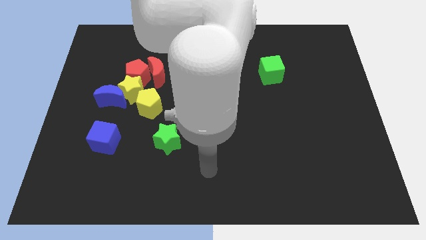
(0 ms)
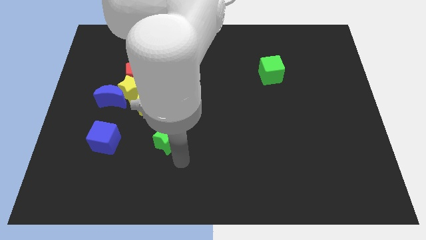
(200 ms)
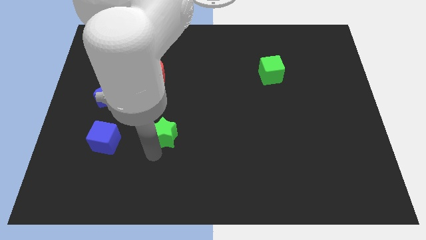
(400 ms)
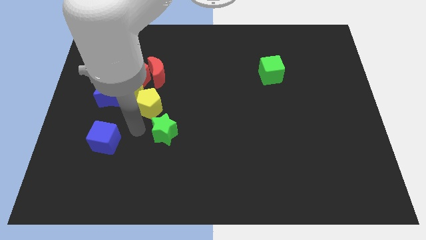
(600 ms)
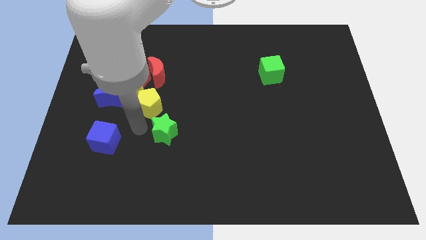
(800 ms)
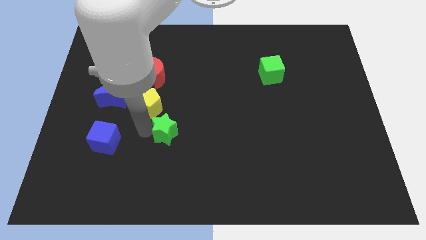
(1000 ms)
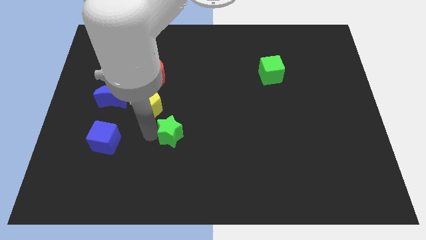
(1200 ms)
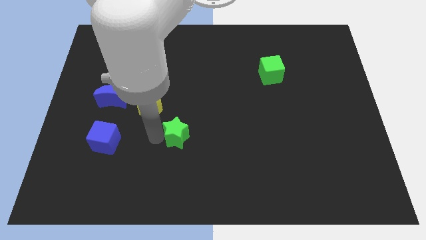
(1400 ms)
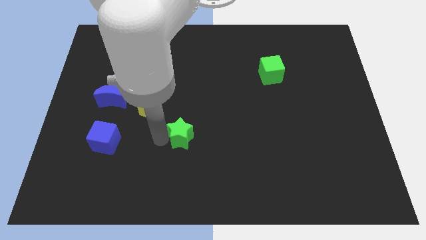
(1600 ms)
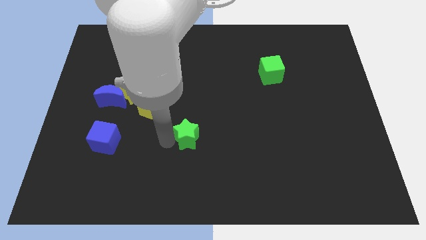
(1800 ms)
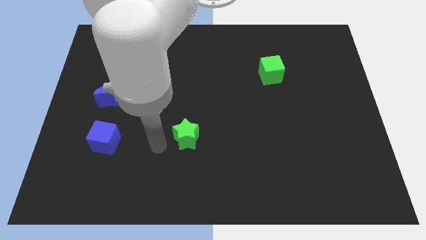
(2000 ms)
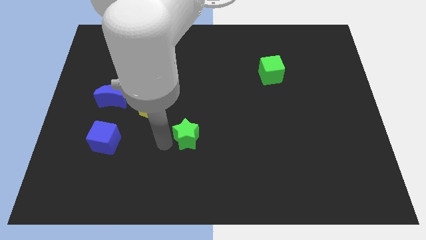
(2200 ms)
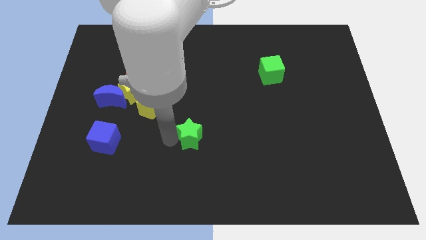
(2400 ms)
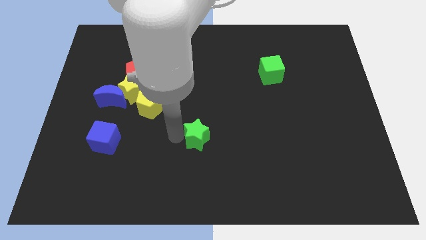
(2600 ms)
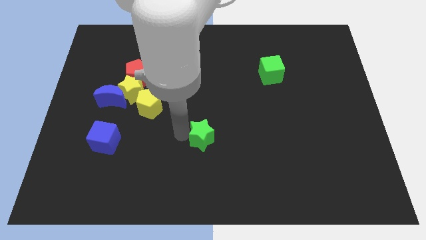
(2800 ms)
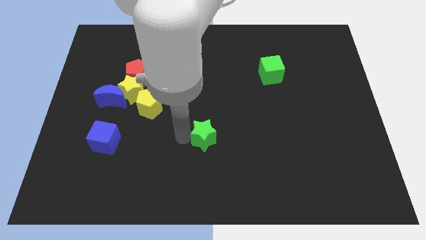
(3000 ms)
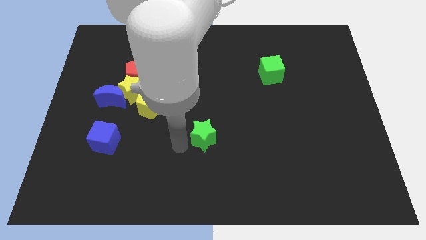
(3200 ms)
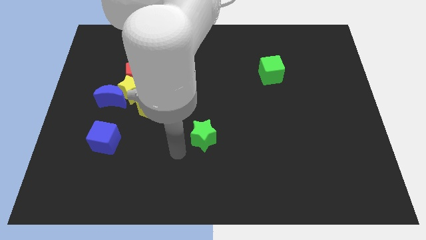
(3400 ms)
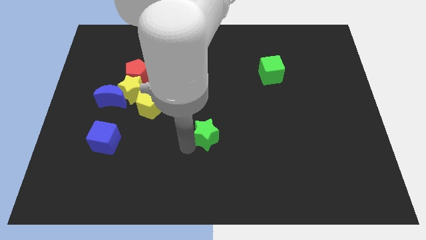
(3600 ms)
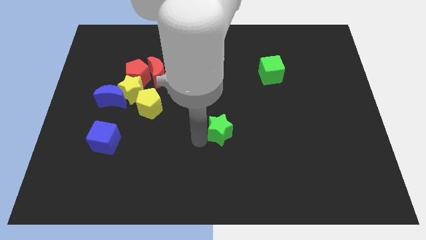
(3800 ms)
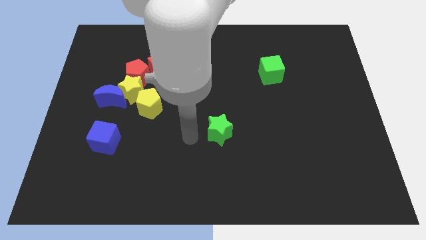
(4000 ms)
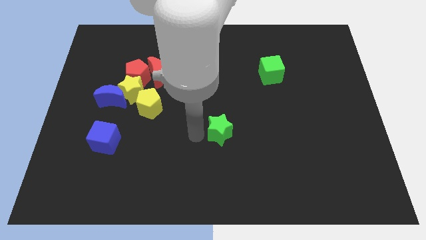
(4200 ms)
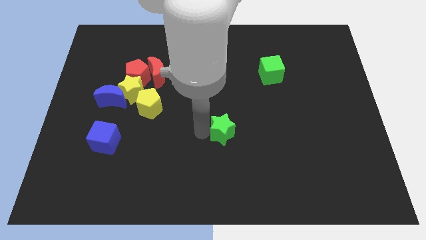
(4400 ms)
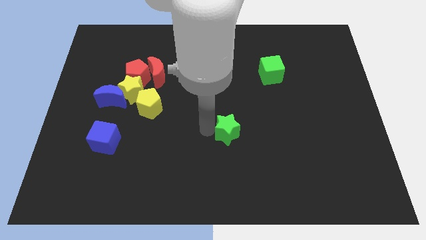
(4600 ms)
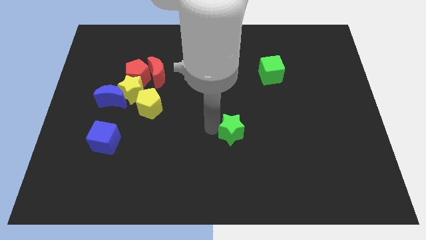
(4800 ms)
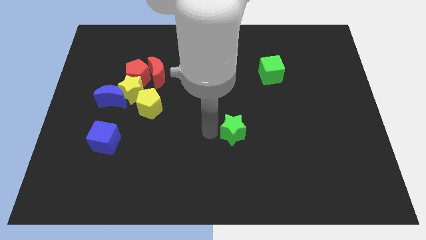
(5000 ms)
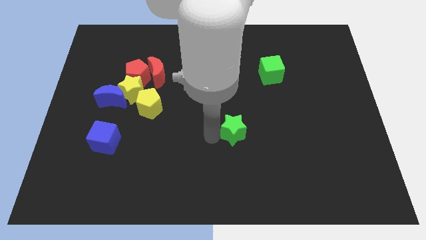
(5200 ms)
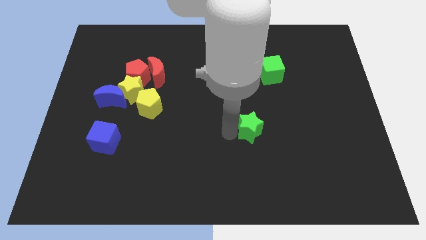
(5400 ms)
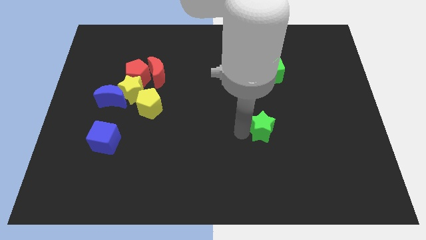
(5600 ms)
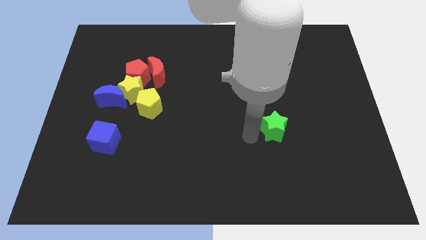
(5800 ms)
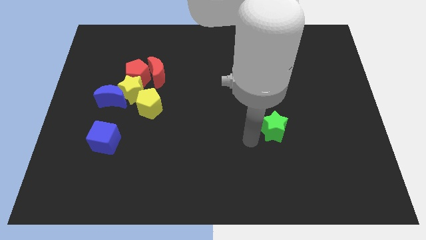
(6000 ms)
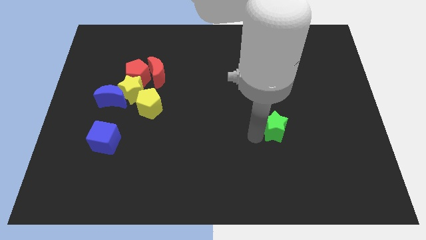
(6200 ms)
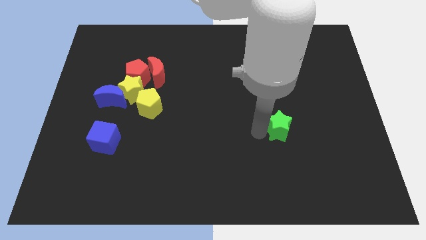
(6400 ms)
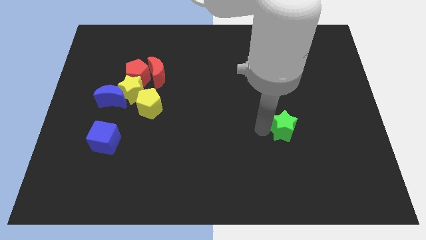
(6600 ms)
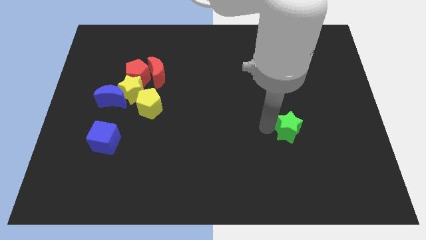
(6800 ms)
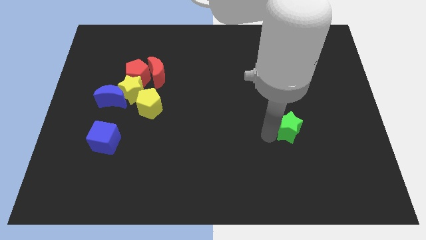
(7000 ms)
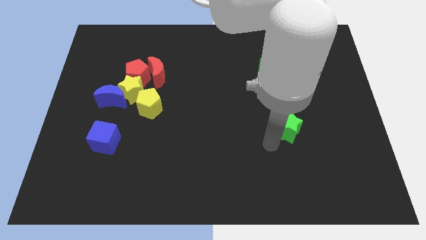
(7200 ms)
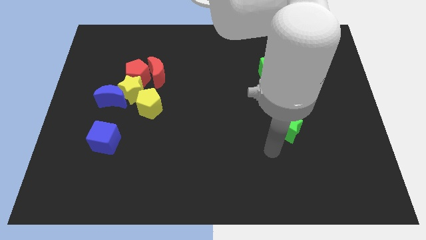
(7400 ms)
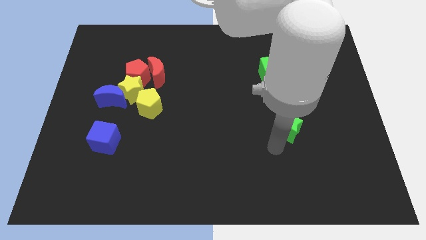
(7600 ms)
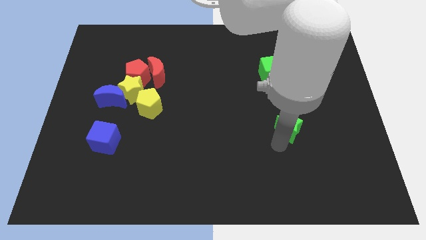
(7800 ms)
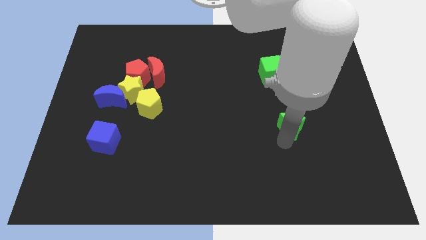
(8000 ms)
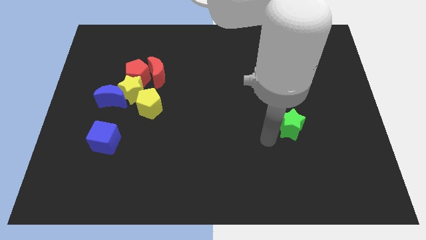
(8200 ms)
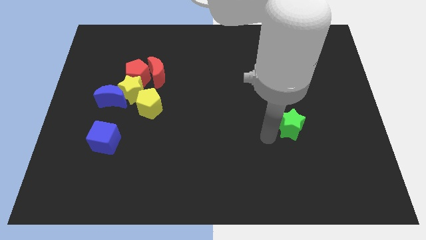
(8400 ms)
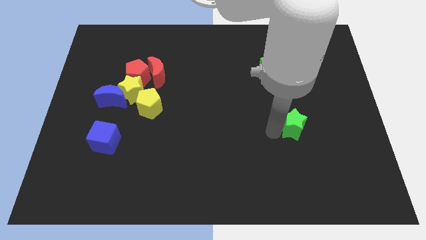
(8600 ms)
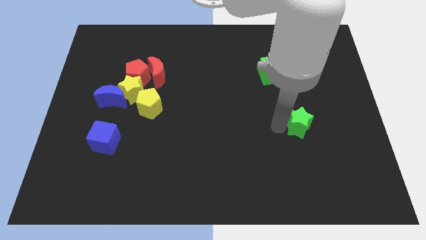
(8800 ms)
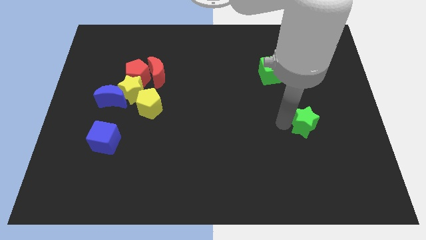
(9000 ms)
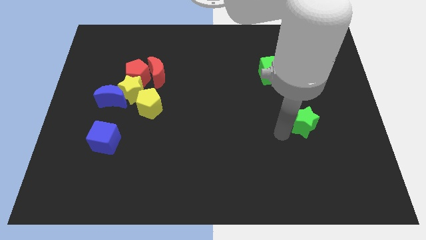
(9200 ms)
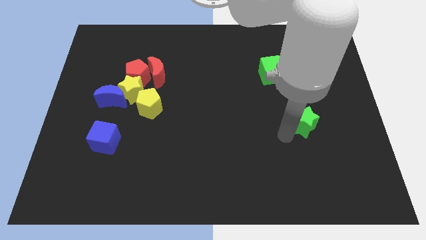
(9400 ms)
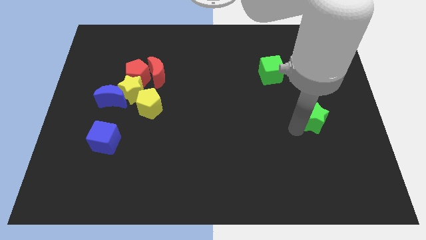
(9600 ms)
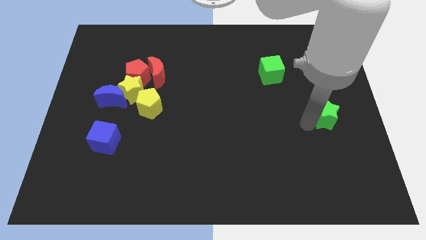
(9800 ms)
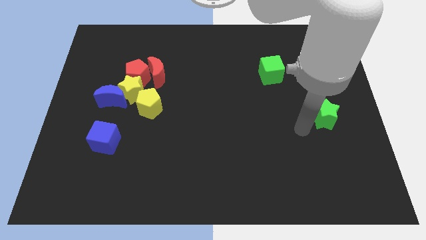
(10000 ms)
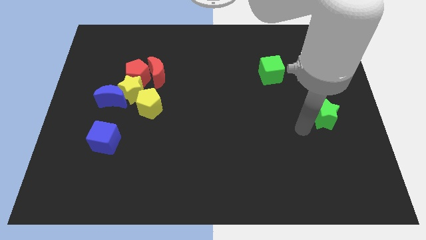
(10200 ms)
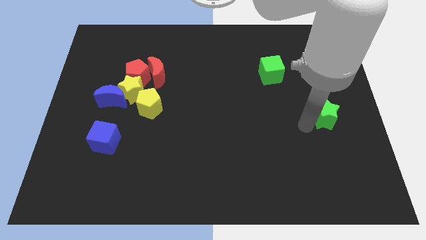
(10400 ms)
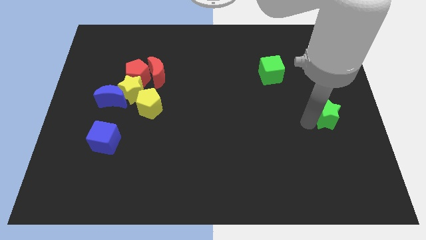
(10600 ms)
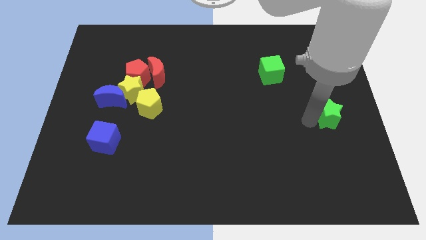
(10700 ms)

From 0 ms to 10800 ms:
put the green star to the right side of the board

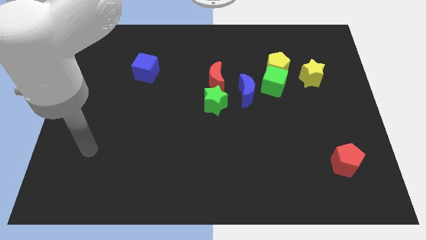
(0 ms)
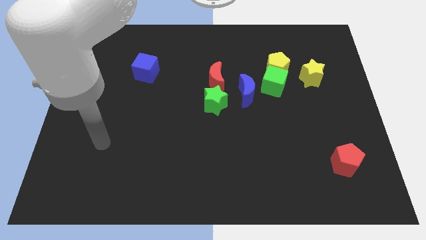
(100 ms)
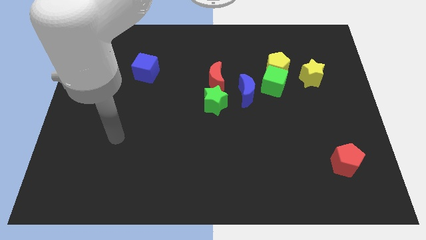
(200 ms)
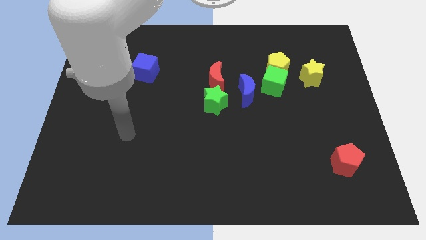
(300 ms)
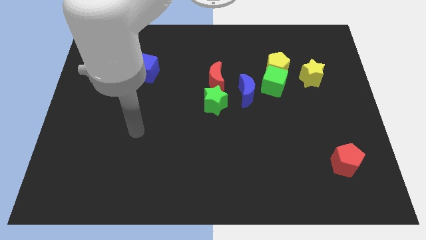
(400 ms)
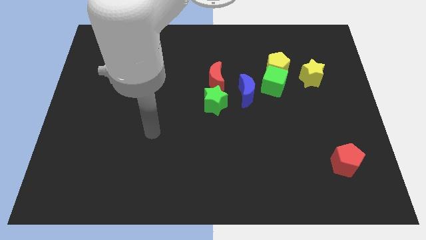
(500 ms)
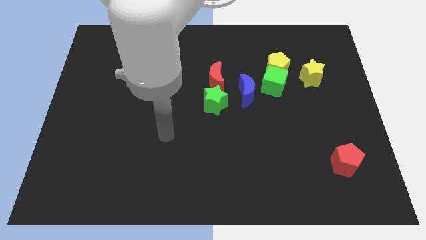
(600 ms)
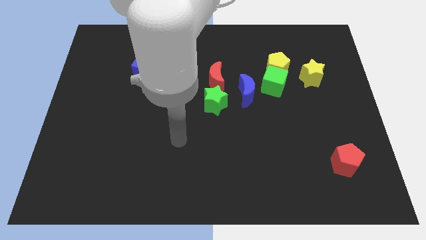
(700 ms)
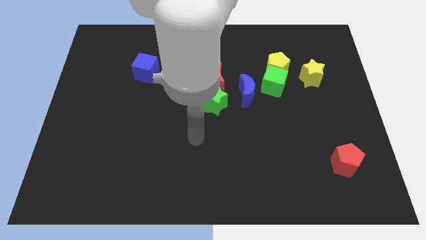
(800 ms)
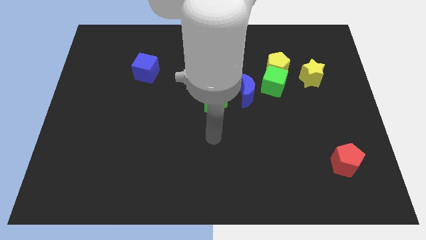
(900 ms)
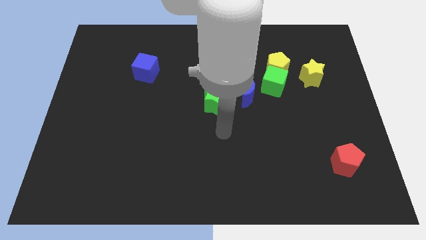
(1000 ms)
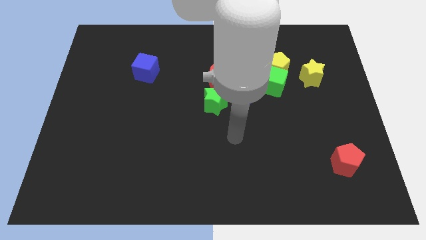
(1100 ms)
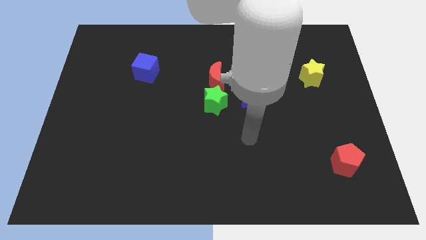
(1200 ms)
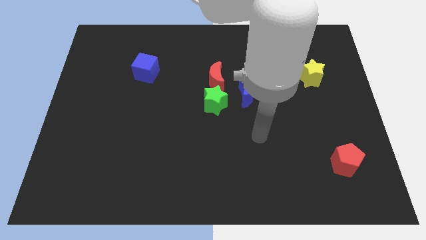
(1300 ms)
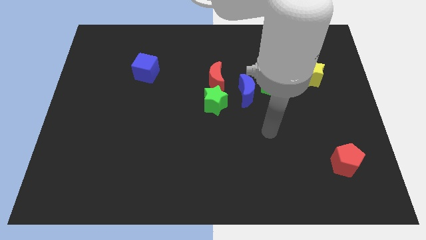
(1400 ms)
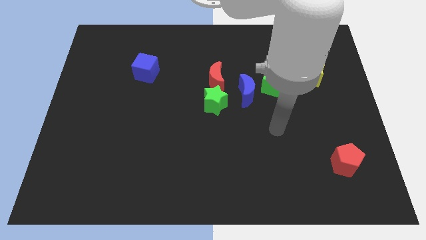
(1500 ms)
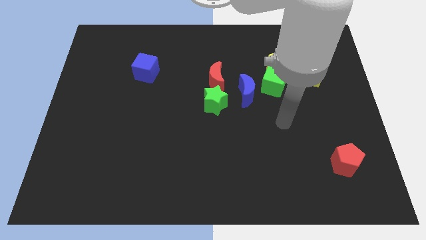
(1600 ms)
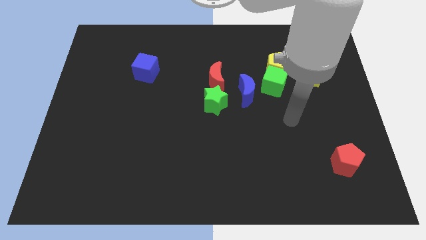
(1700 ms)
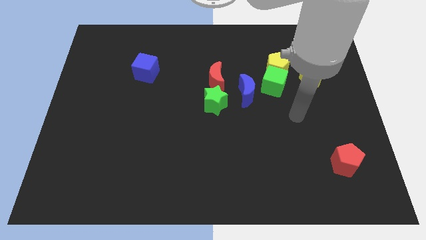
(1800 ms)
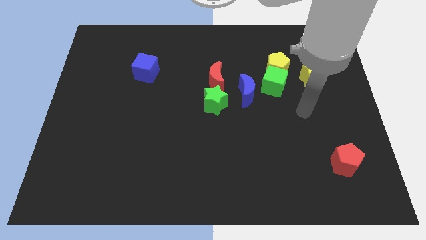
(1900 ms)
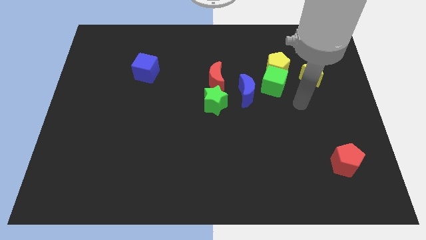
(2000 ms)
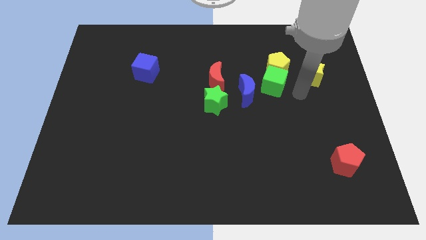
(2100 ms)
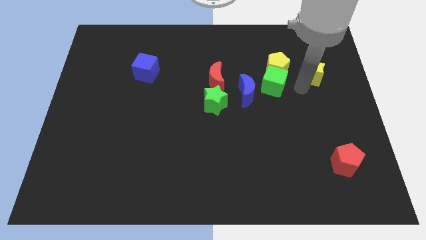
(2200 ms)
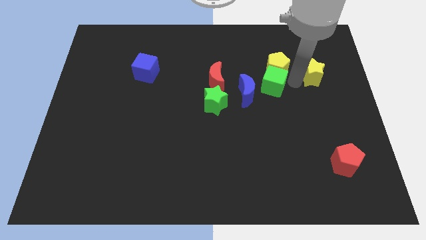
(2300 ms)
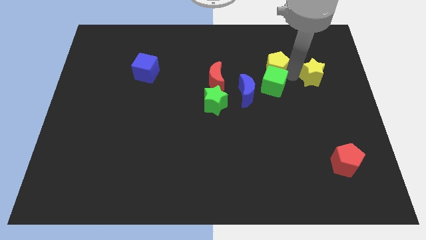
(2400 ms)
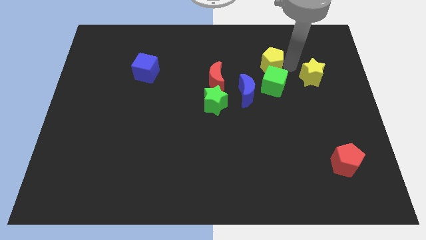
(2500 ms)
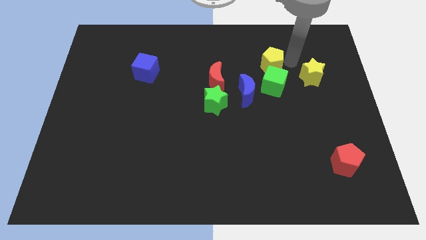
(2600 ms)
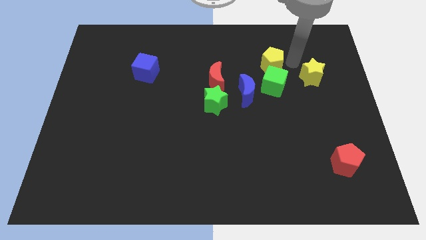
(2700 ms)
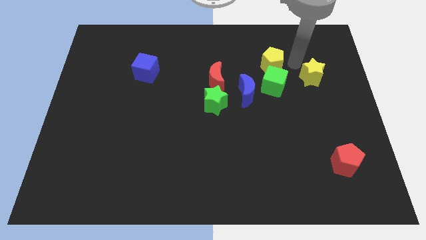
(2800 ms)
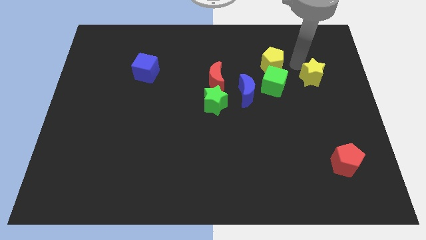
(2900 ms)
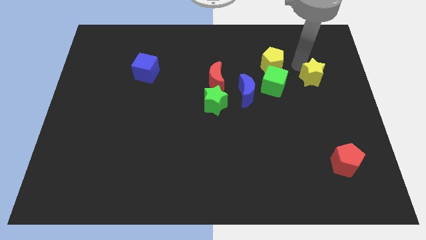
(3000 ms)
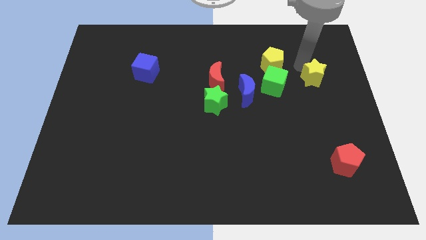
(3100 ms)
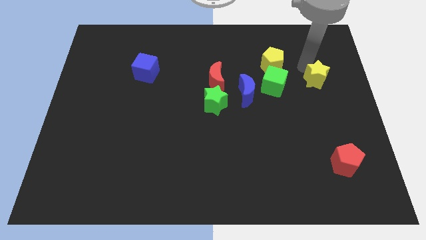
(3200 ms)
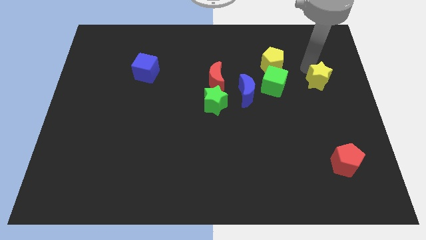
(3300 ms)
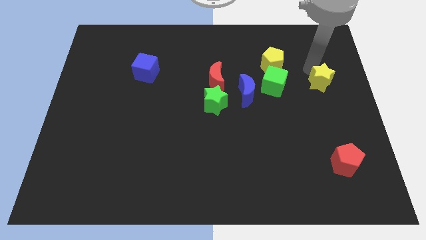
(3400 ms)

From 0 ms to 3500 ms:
move the yellow star to the center right
